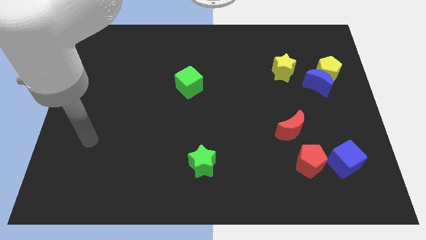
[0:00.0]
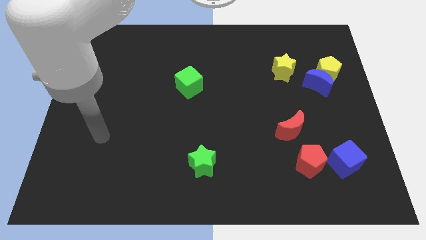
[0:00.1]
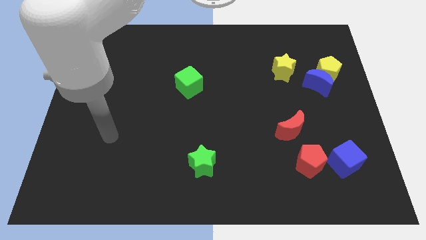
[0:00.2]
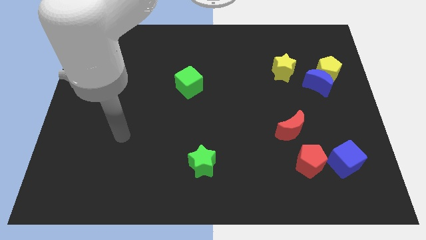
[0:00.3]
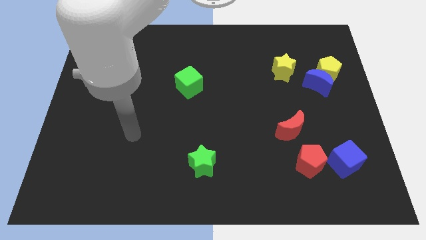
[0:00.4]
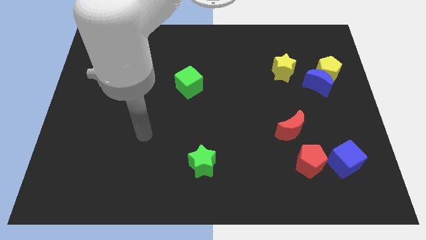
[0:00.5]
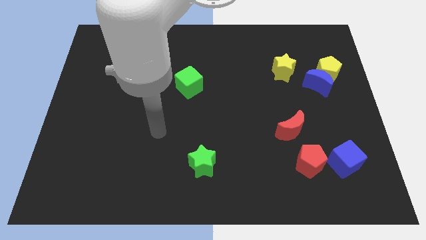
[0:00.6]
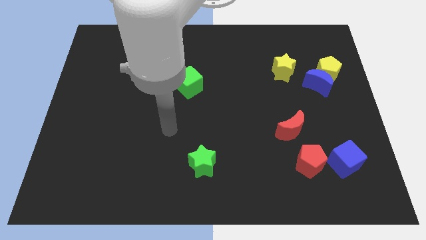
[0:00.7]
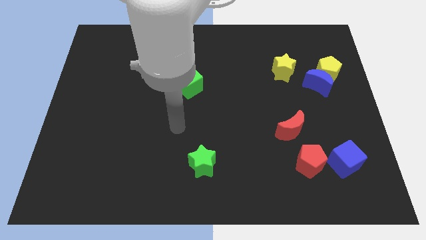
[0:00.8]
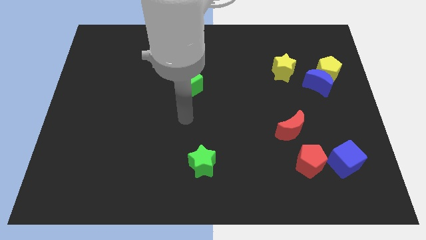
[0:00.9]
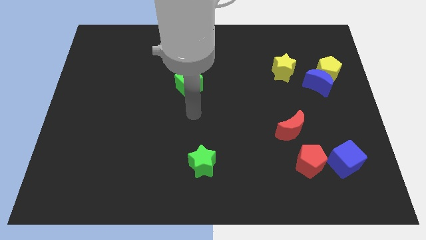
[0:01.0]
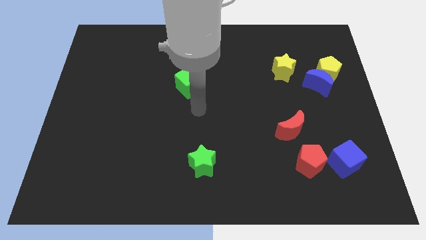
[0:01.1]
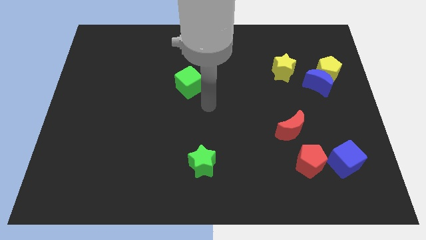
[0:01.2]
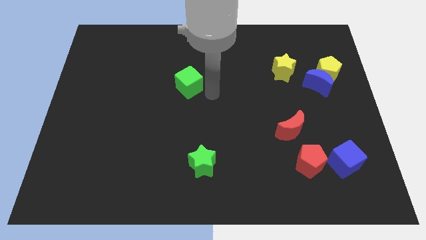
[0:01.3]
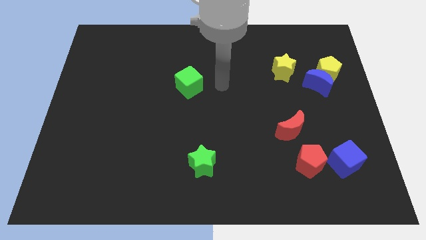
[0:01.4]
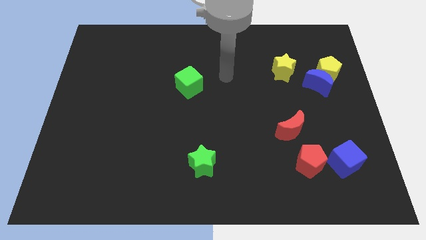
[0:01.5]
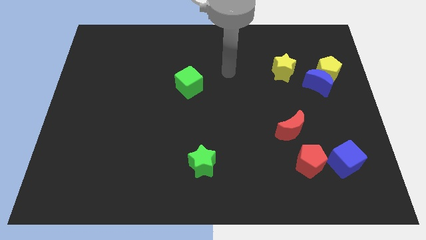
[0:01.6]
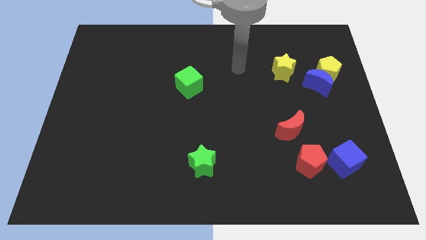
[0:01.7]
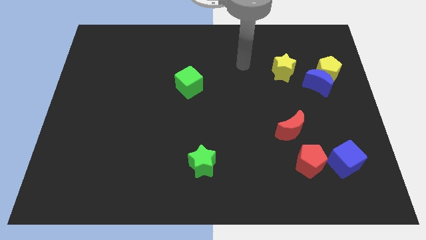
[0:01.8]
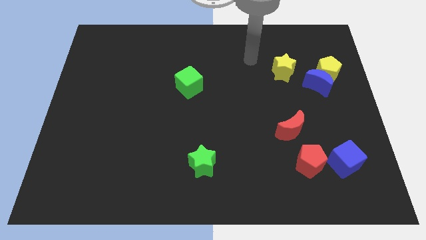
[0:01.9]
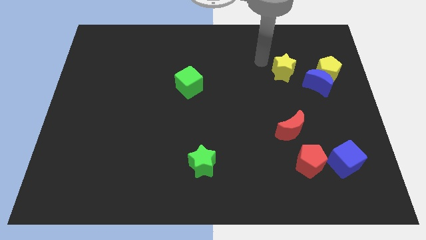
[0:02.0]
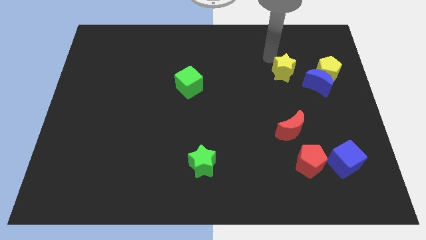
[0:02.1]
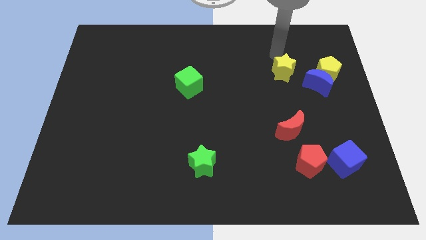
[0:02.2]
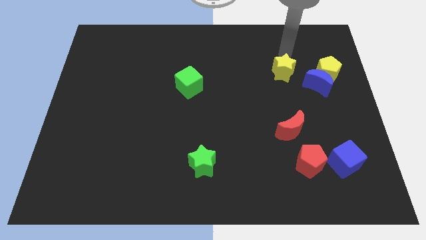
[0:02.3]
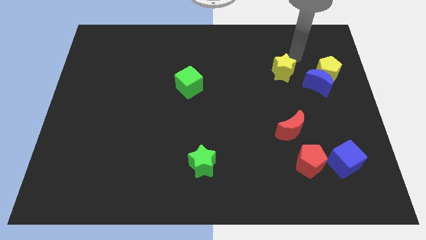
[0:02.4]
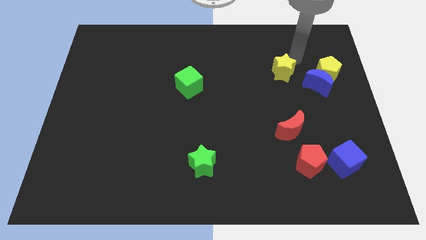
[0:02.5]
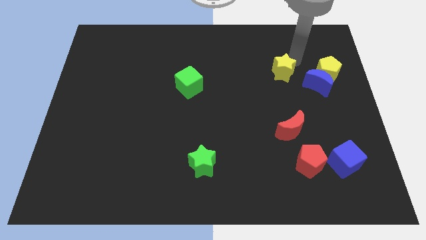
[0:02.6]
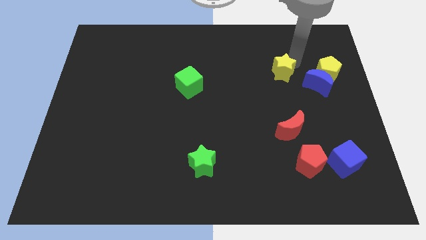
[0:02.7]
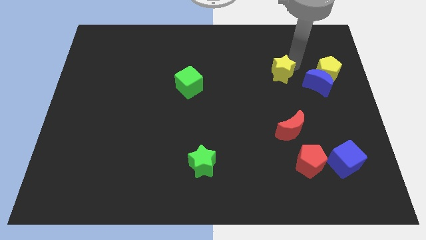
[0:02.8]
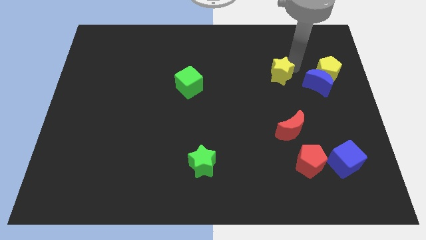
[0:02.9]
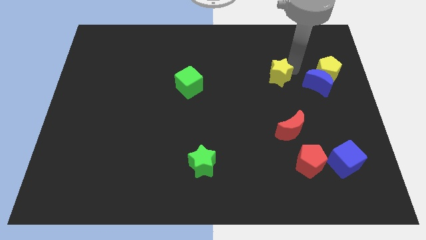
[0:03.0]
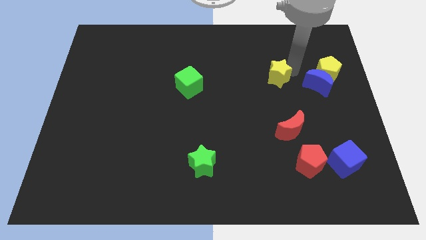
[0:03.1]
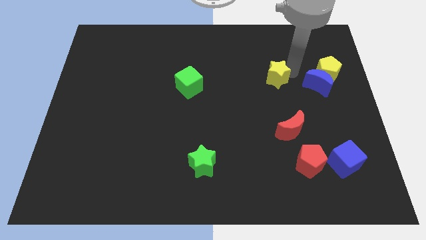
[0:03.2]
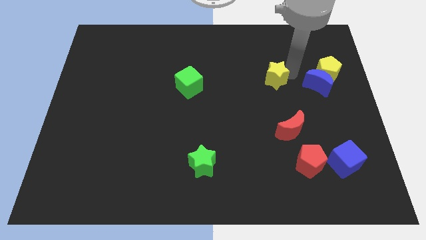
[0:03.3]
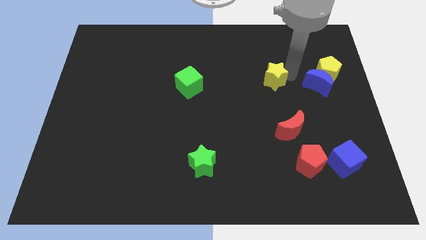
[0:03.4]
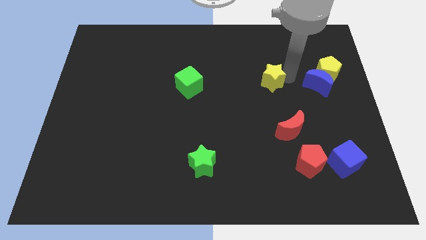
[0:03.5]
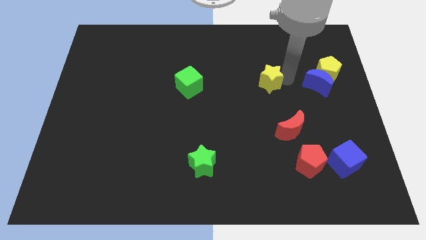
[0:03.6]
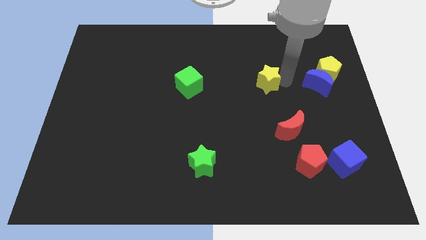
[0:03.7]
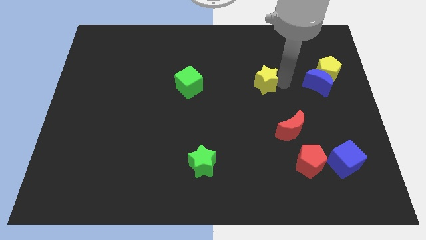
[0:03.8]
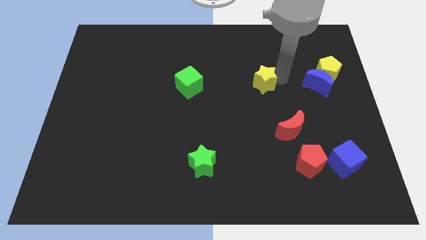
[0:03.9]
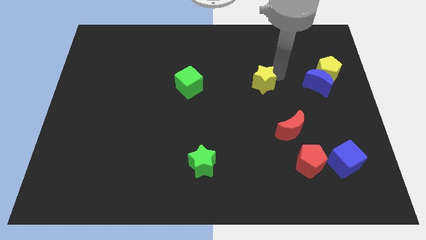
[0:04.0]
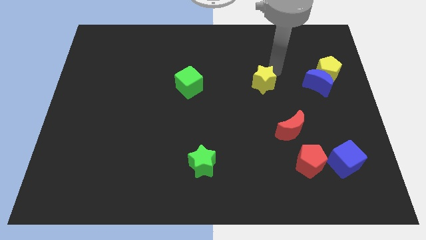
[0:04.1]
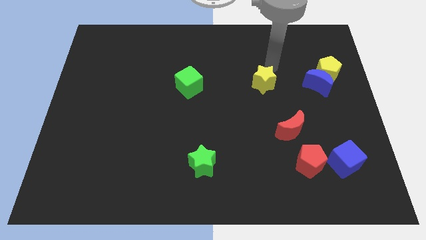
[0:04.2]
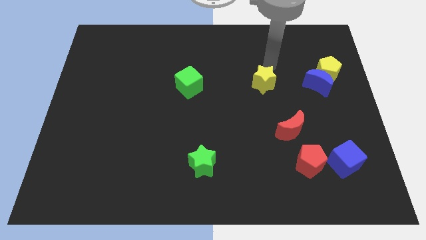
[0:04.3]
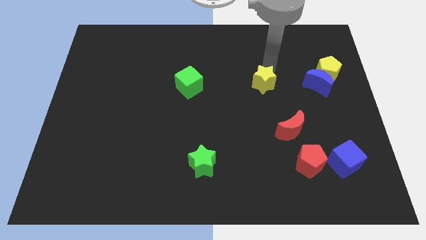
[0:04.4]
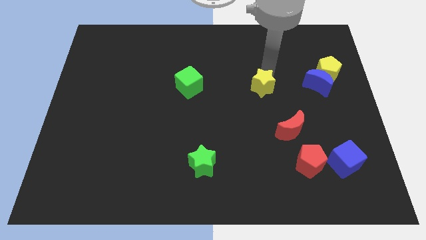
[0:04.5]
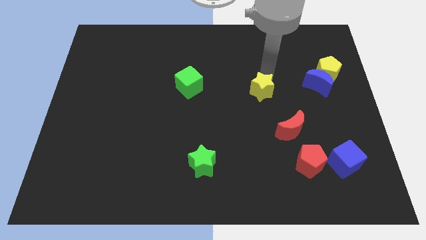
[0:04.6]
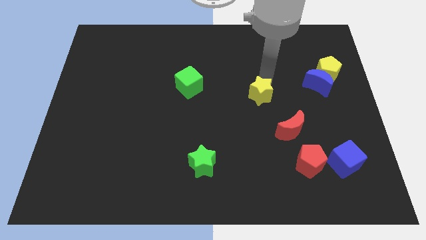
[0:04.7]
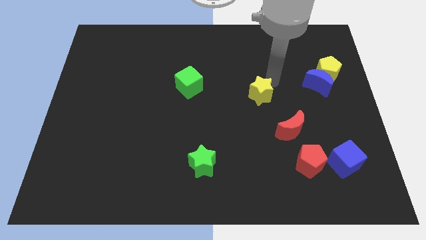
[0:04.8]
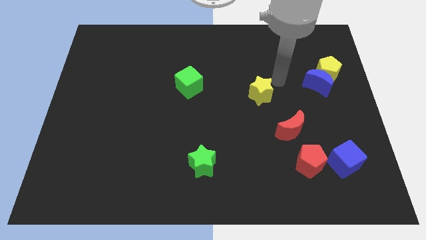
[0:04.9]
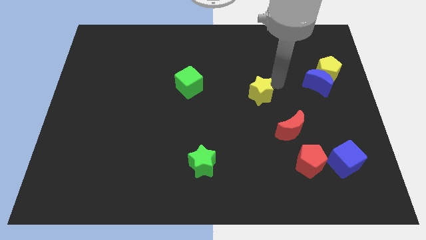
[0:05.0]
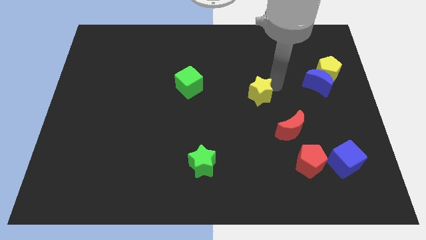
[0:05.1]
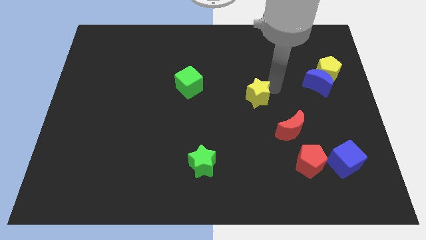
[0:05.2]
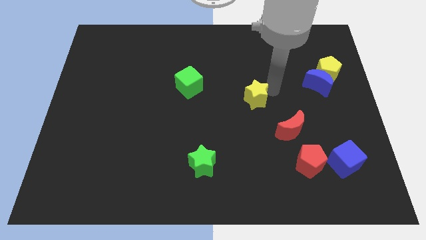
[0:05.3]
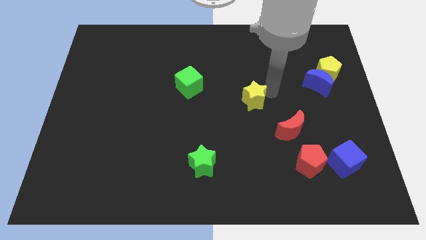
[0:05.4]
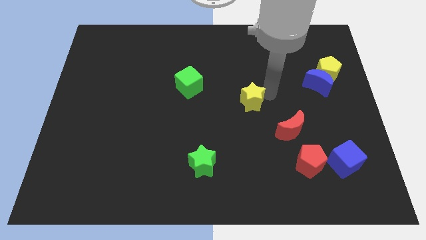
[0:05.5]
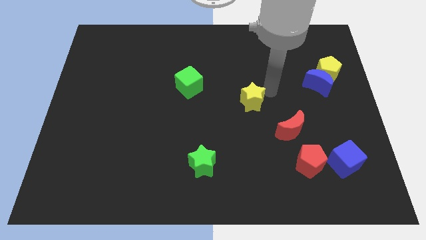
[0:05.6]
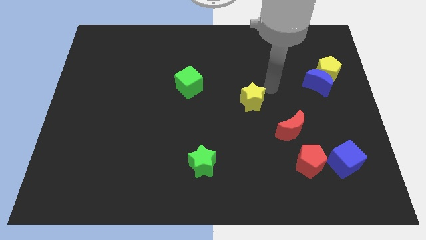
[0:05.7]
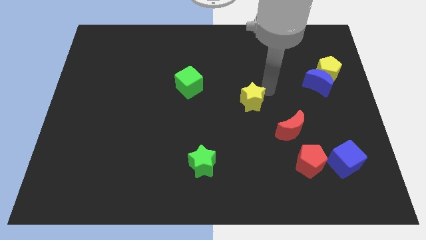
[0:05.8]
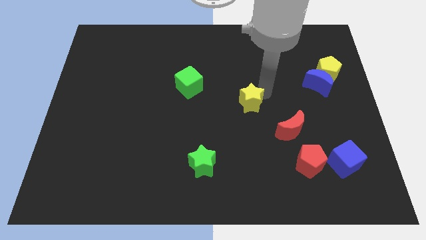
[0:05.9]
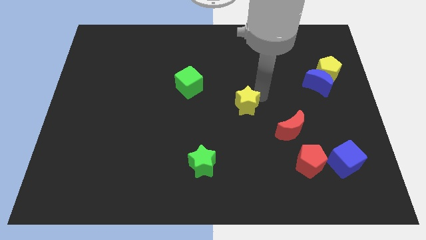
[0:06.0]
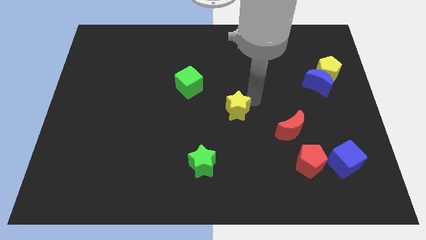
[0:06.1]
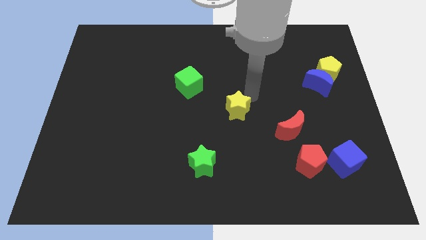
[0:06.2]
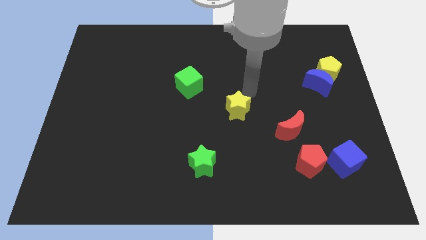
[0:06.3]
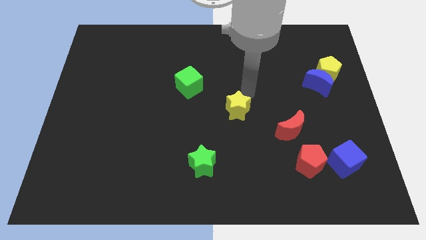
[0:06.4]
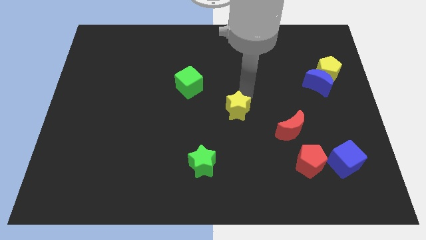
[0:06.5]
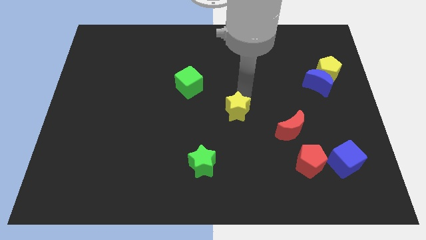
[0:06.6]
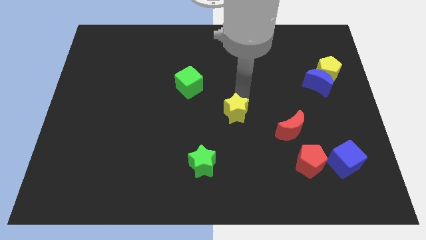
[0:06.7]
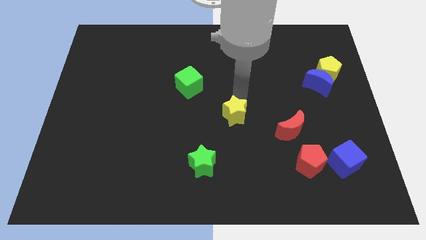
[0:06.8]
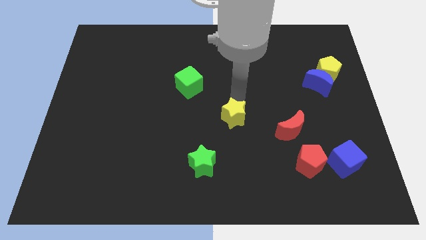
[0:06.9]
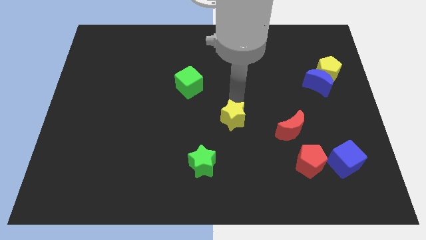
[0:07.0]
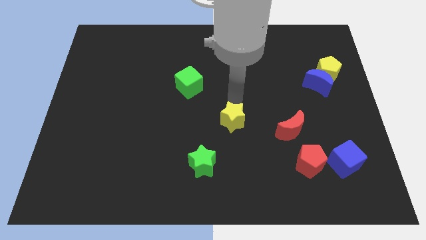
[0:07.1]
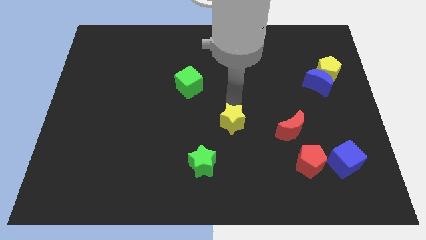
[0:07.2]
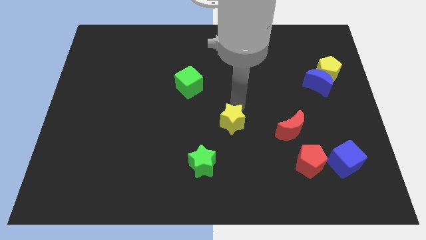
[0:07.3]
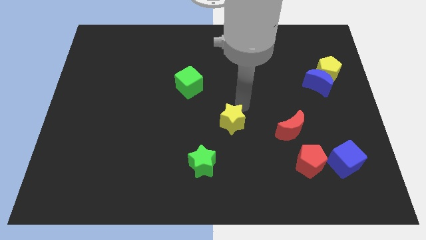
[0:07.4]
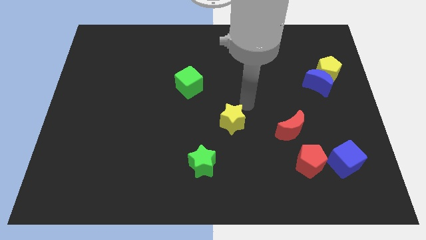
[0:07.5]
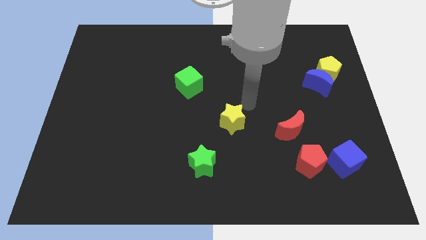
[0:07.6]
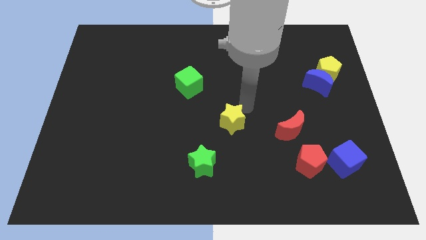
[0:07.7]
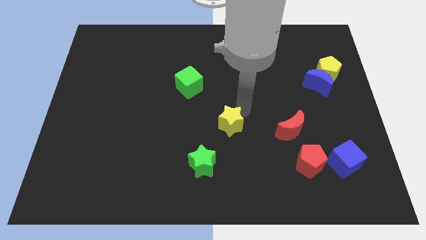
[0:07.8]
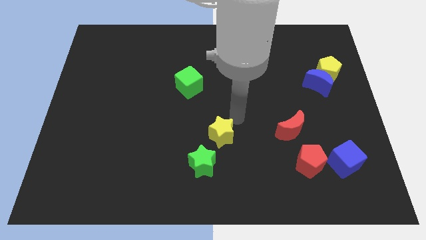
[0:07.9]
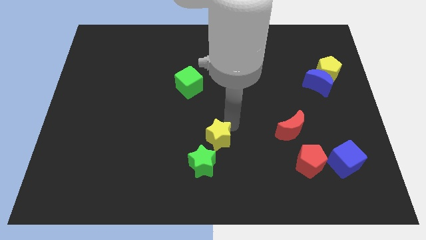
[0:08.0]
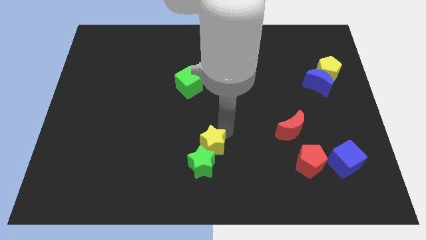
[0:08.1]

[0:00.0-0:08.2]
move the yellow star towards the green star
